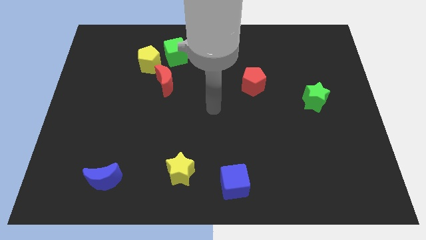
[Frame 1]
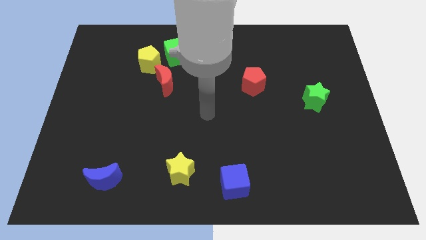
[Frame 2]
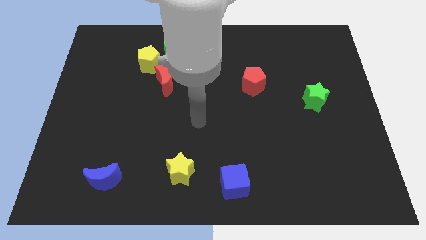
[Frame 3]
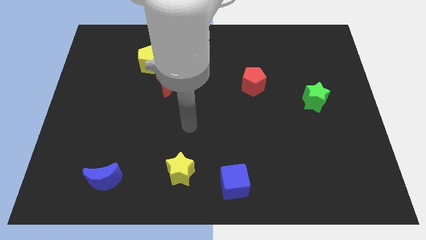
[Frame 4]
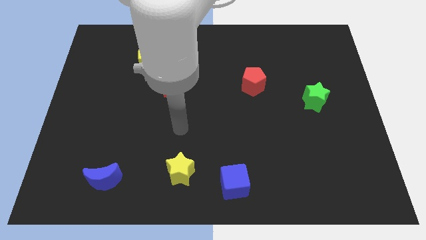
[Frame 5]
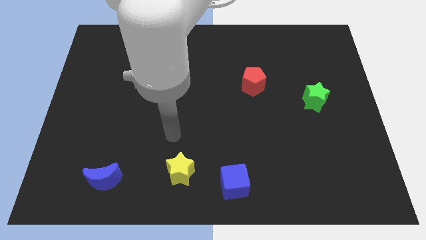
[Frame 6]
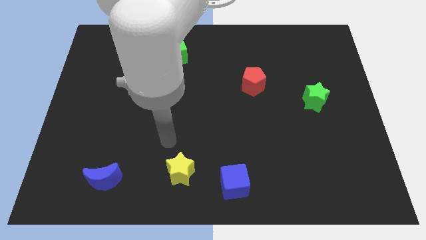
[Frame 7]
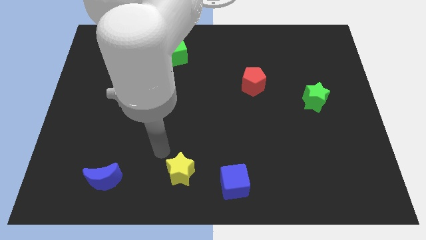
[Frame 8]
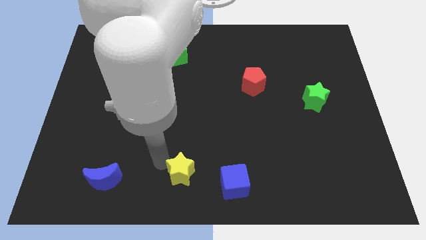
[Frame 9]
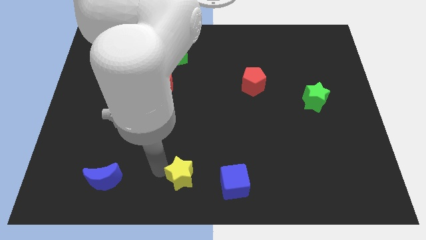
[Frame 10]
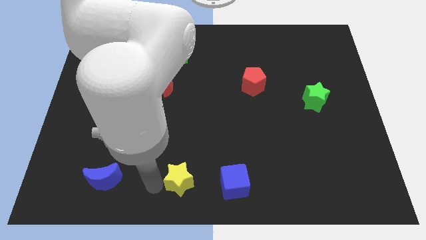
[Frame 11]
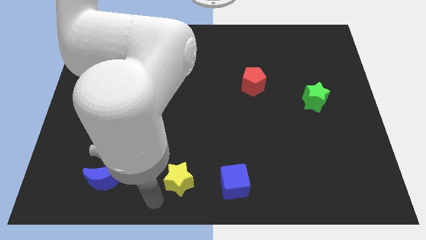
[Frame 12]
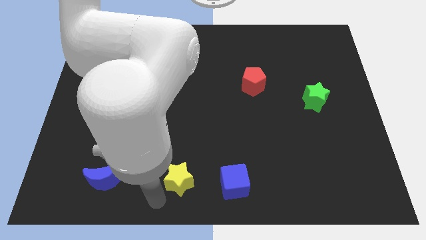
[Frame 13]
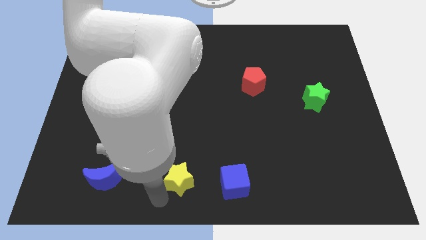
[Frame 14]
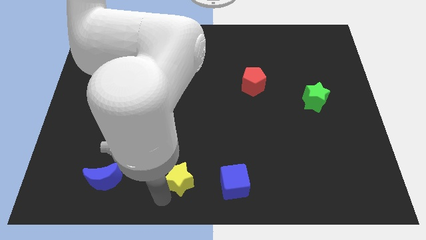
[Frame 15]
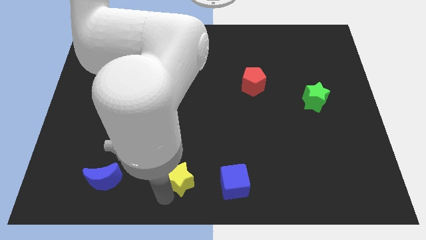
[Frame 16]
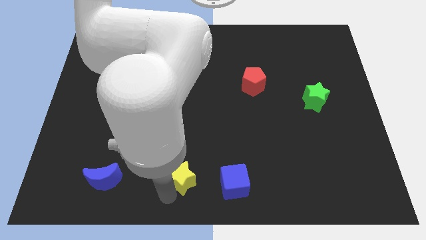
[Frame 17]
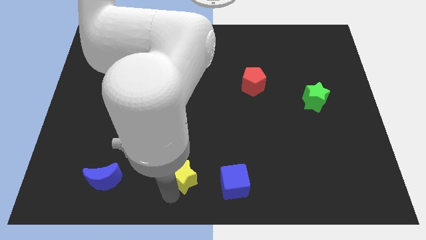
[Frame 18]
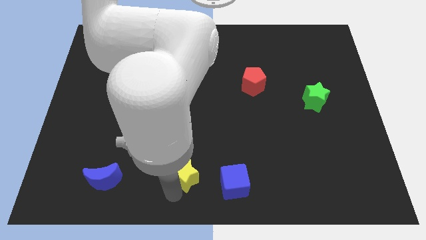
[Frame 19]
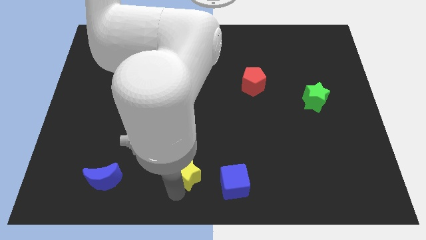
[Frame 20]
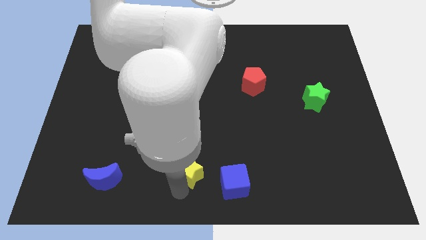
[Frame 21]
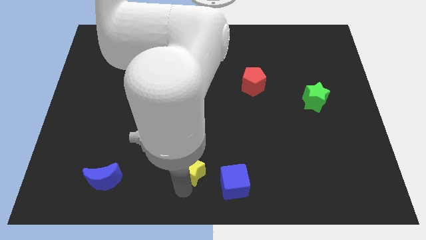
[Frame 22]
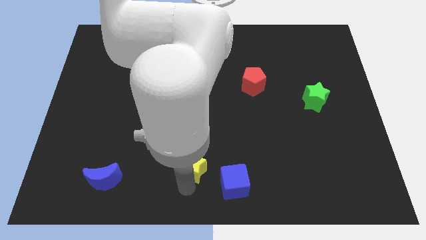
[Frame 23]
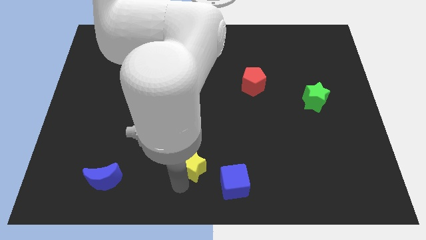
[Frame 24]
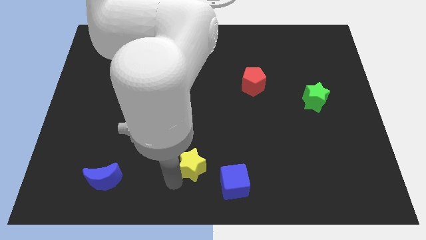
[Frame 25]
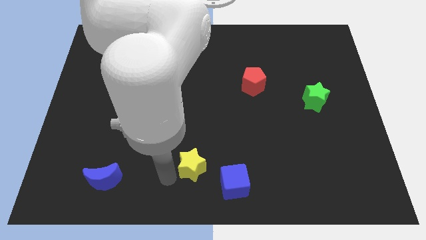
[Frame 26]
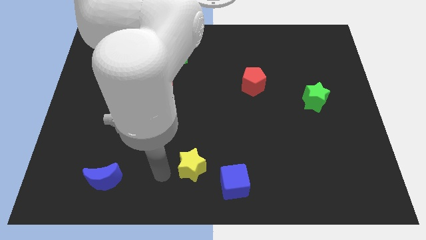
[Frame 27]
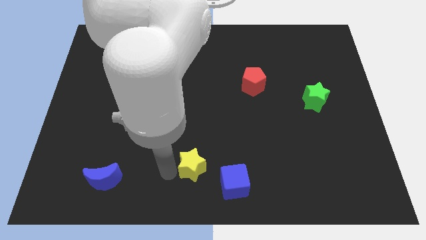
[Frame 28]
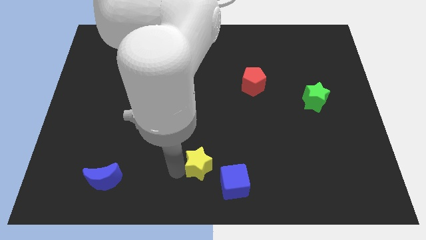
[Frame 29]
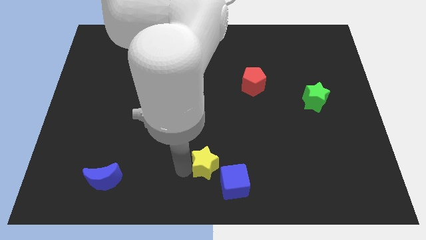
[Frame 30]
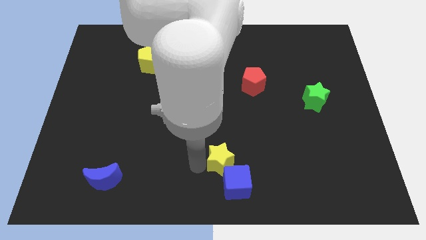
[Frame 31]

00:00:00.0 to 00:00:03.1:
move the yellow star a bit right

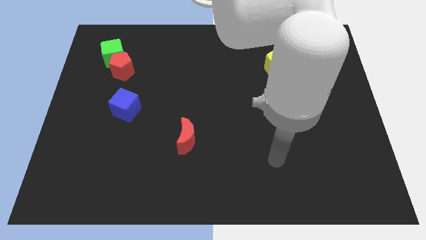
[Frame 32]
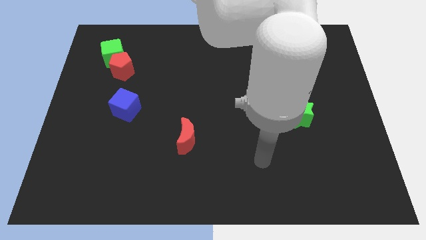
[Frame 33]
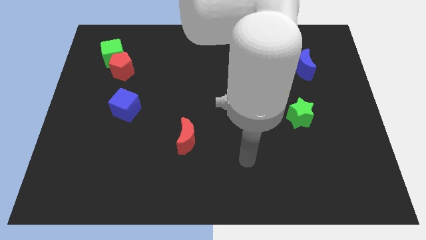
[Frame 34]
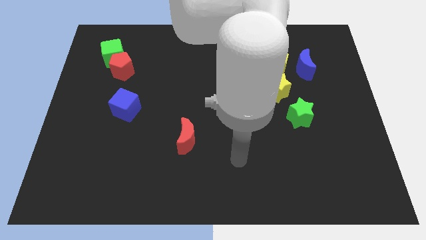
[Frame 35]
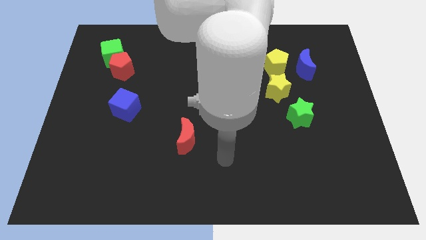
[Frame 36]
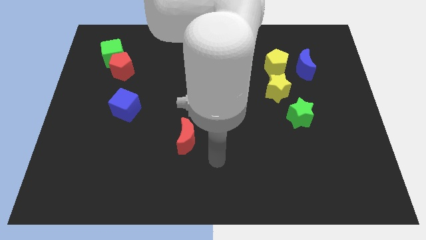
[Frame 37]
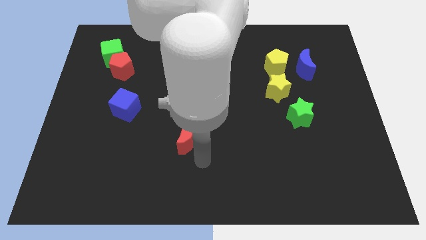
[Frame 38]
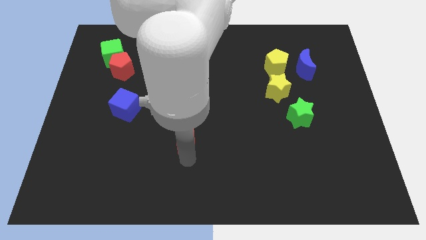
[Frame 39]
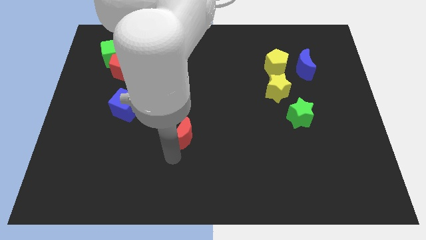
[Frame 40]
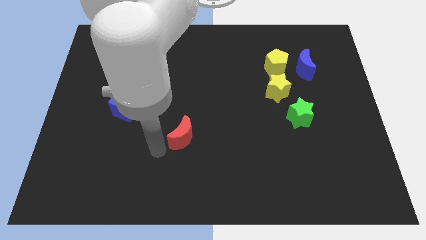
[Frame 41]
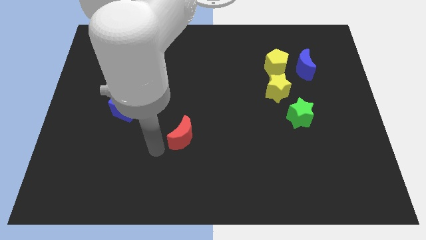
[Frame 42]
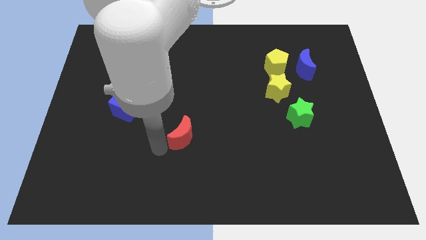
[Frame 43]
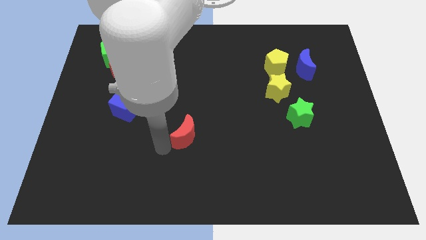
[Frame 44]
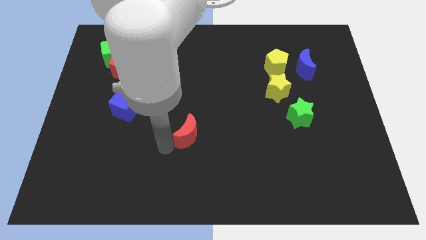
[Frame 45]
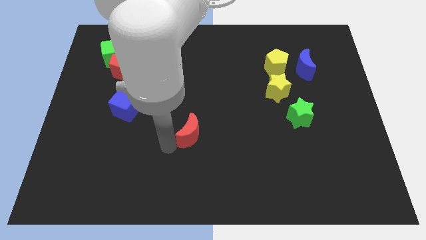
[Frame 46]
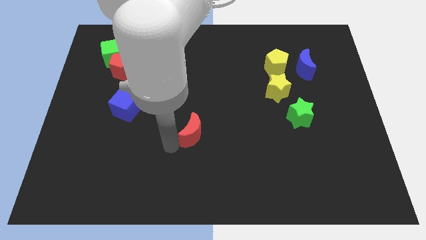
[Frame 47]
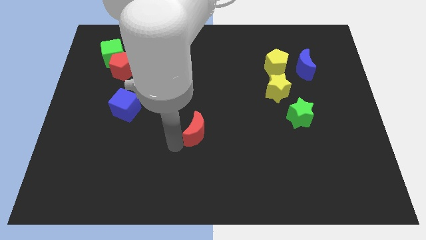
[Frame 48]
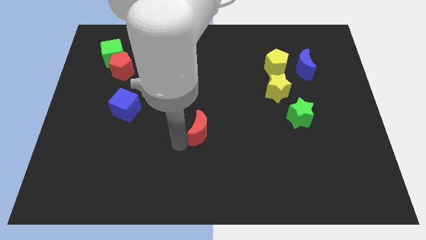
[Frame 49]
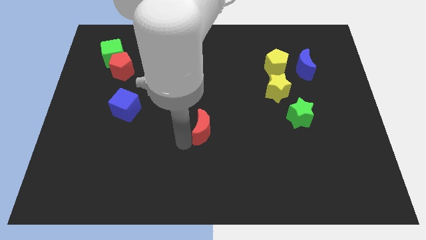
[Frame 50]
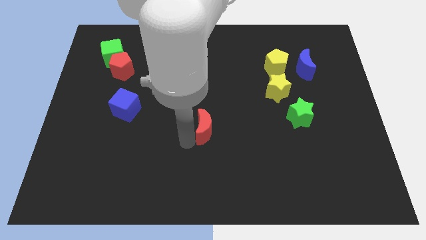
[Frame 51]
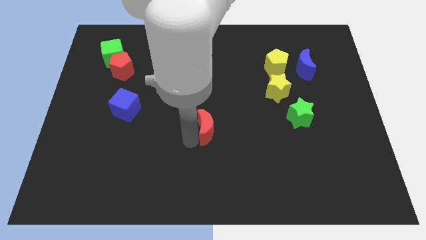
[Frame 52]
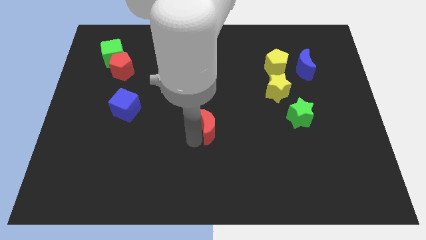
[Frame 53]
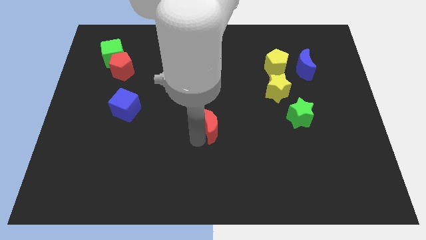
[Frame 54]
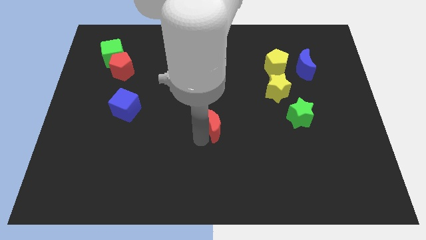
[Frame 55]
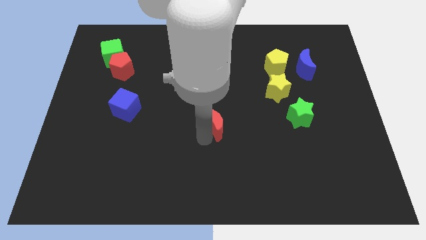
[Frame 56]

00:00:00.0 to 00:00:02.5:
push the red moon up and then to the right somewhat

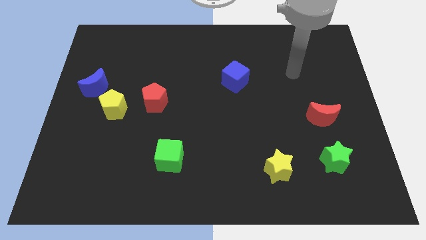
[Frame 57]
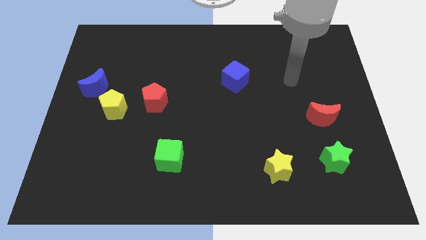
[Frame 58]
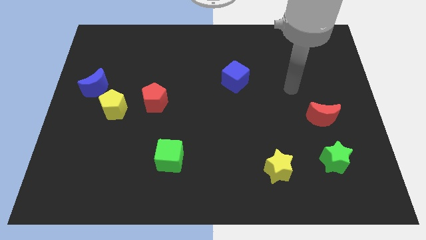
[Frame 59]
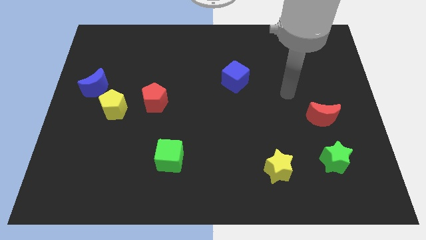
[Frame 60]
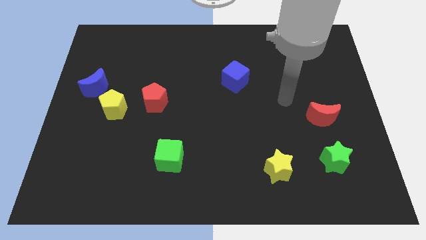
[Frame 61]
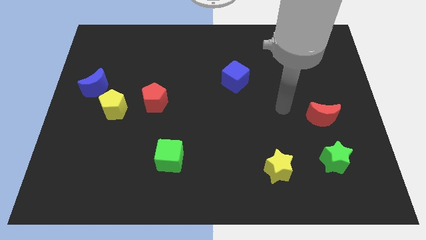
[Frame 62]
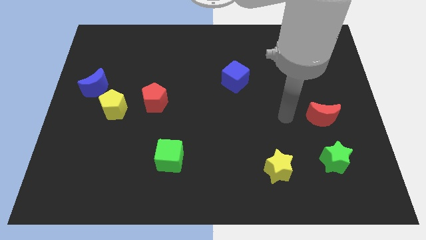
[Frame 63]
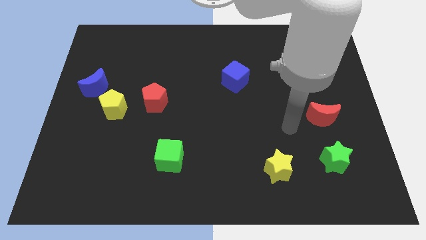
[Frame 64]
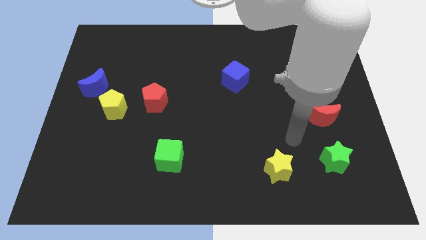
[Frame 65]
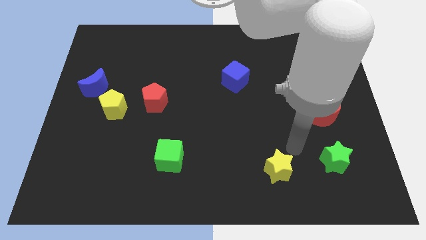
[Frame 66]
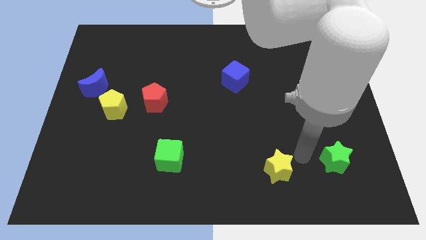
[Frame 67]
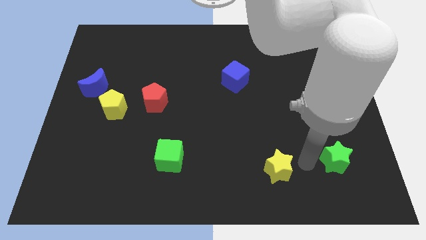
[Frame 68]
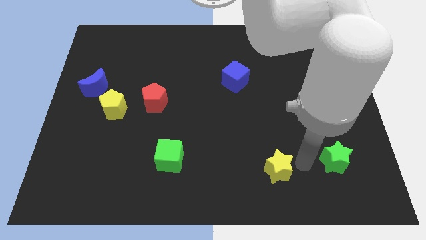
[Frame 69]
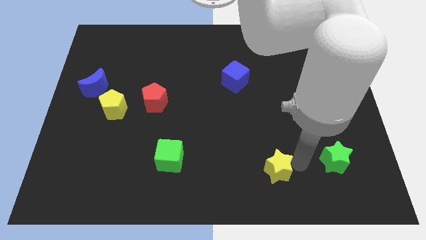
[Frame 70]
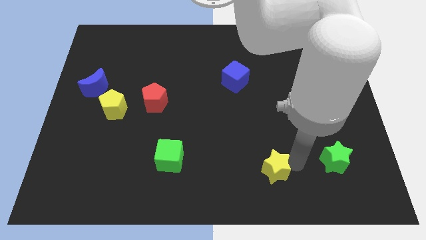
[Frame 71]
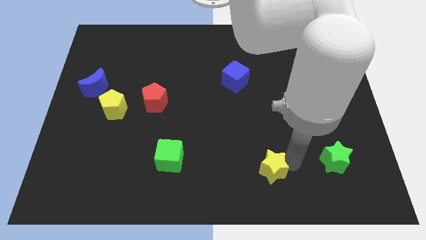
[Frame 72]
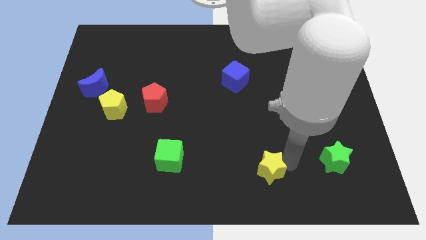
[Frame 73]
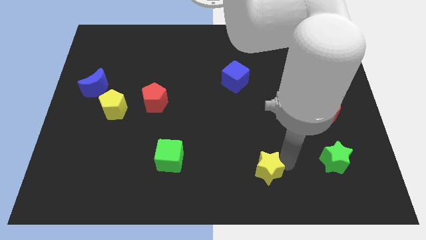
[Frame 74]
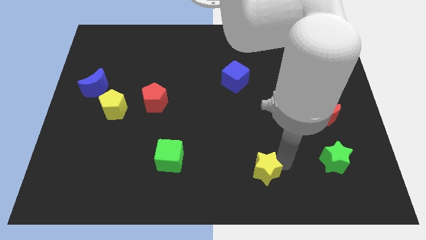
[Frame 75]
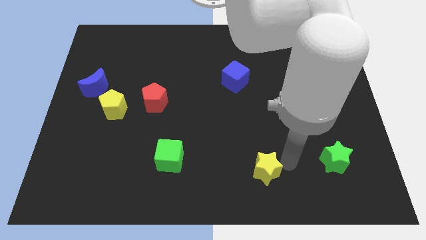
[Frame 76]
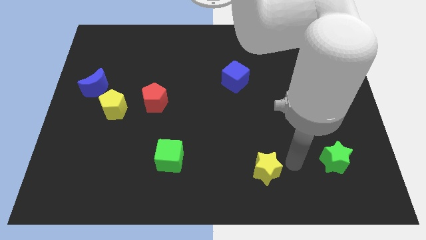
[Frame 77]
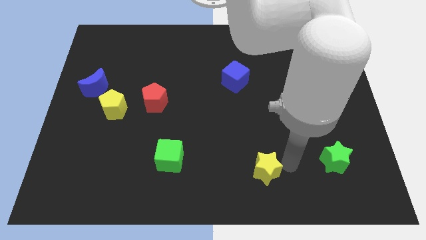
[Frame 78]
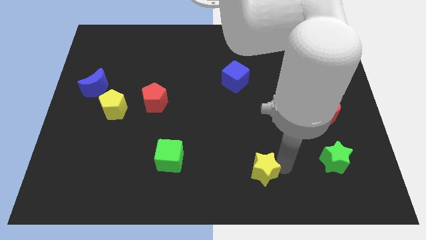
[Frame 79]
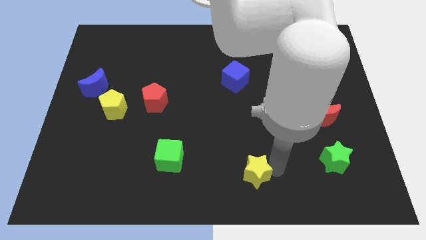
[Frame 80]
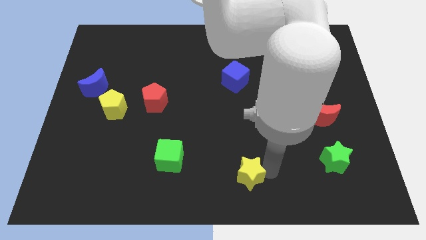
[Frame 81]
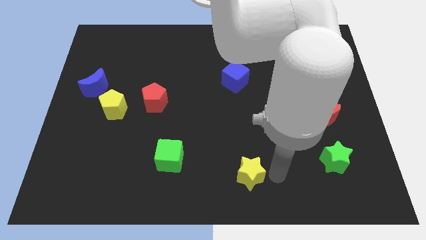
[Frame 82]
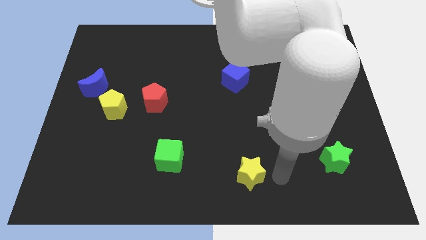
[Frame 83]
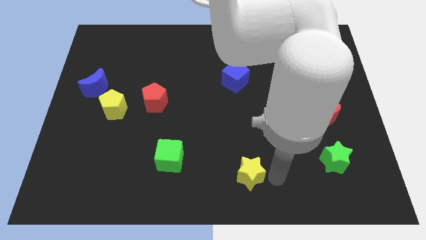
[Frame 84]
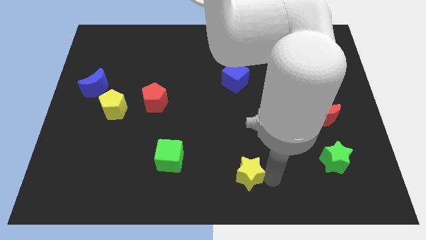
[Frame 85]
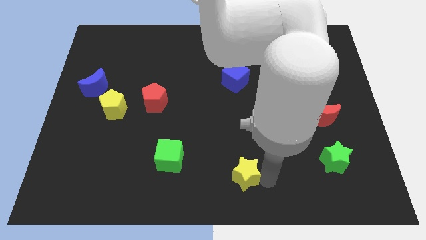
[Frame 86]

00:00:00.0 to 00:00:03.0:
move the yellow star a little bit left
